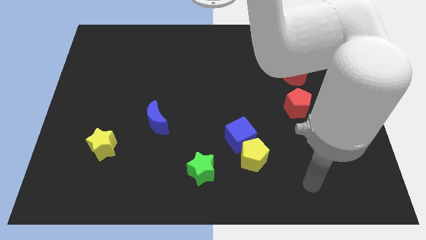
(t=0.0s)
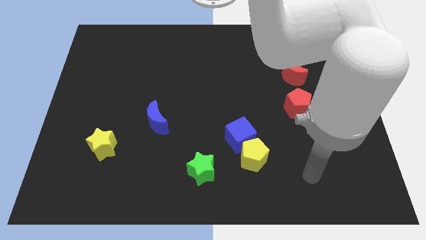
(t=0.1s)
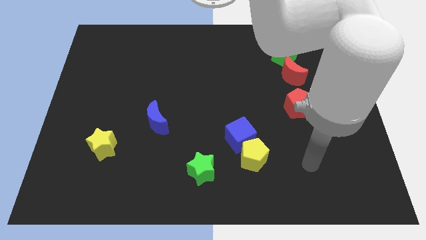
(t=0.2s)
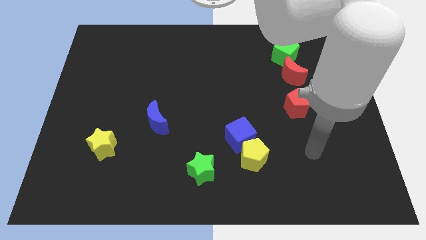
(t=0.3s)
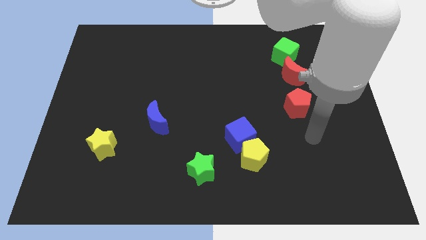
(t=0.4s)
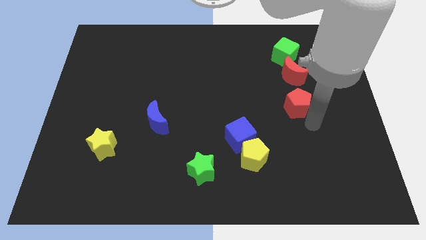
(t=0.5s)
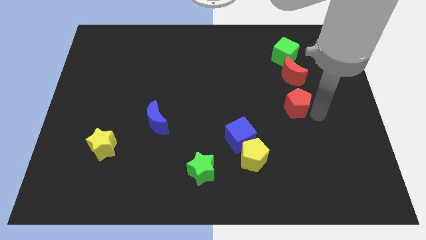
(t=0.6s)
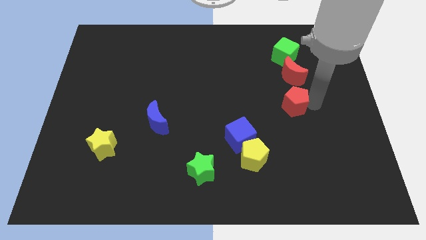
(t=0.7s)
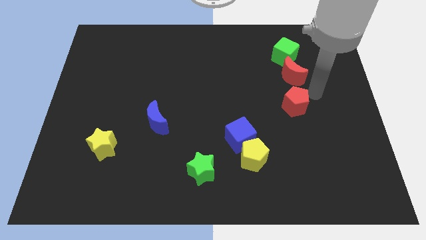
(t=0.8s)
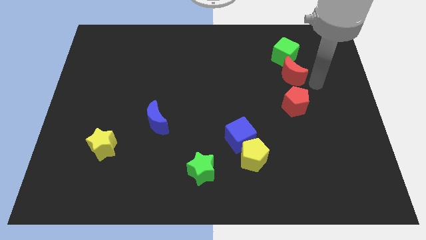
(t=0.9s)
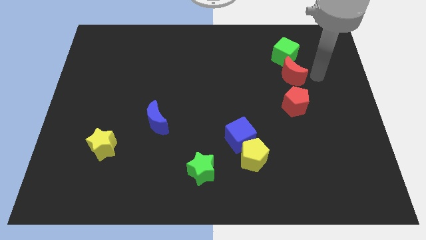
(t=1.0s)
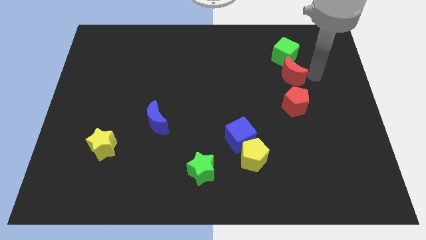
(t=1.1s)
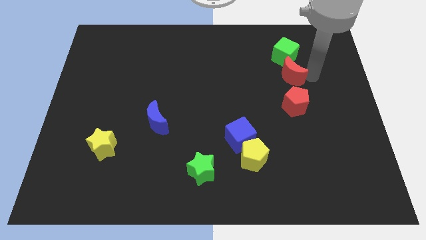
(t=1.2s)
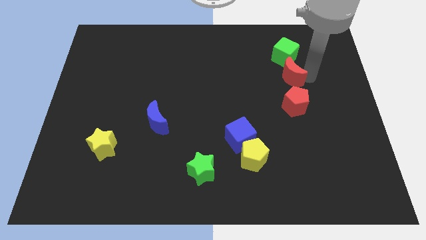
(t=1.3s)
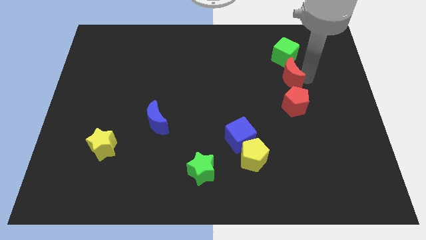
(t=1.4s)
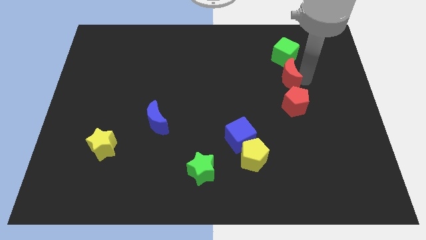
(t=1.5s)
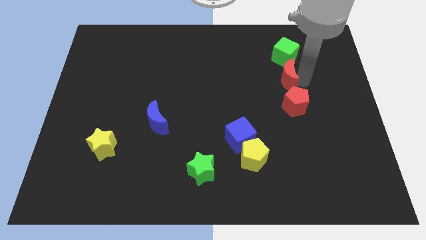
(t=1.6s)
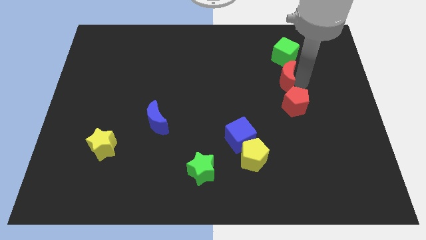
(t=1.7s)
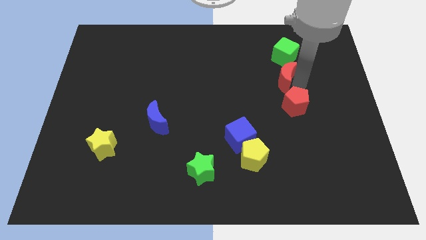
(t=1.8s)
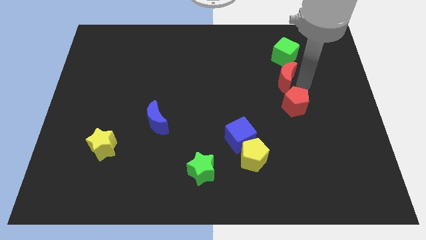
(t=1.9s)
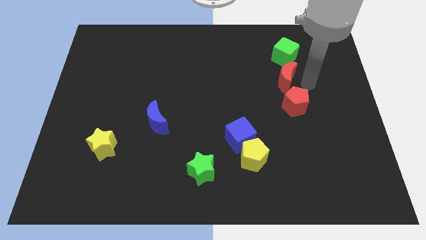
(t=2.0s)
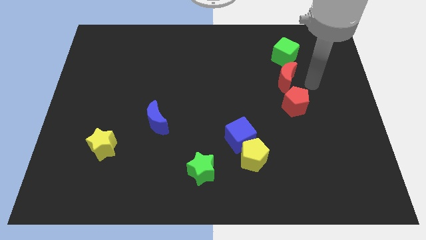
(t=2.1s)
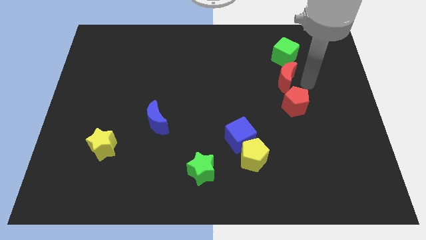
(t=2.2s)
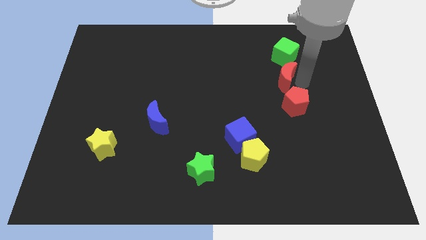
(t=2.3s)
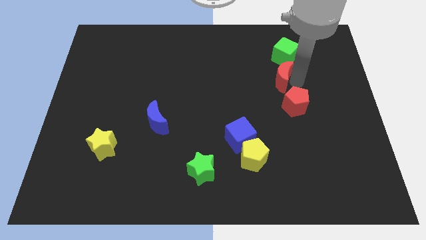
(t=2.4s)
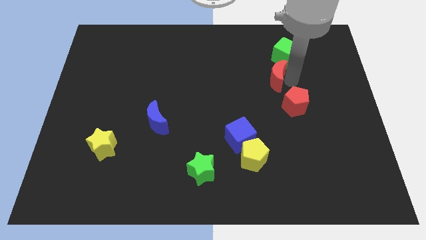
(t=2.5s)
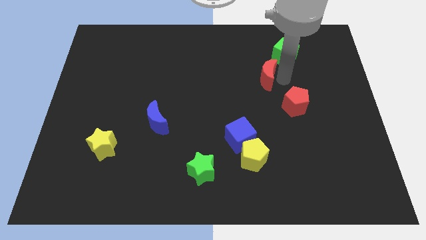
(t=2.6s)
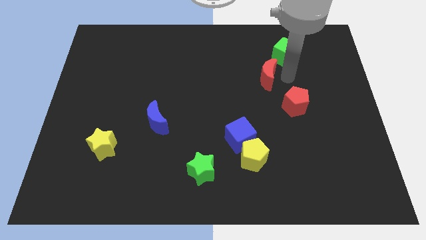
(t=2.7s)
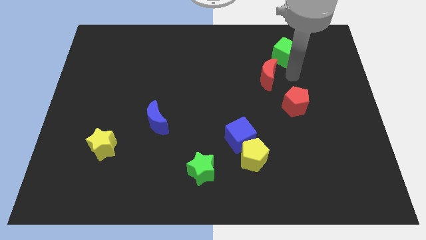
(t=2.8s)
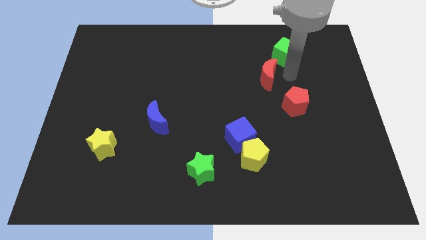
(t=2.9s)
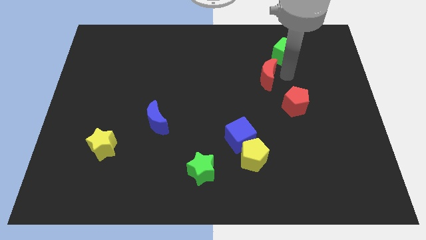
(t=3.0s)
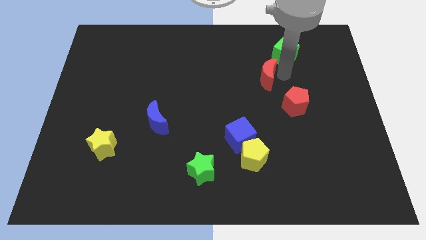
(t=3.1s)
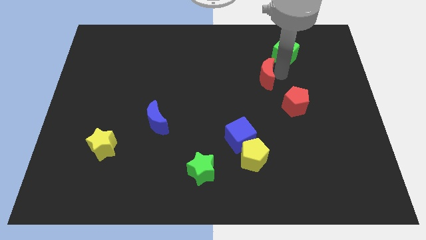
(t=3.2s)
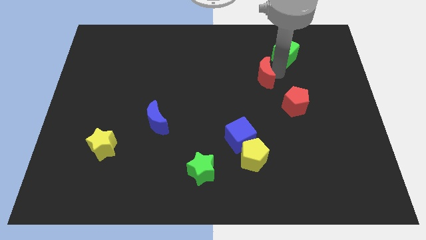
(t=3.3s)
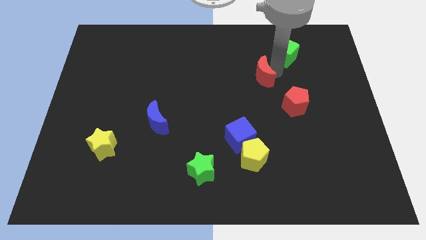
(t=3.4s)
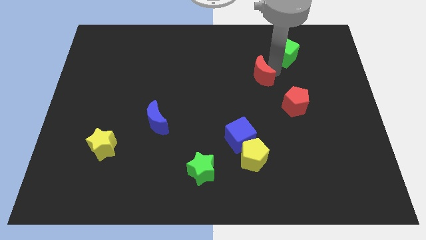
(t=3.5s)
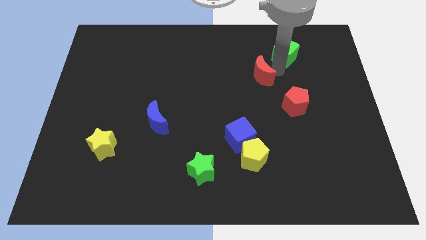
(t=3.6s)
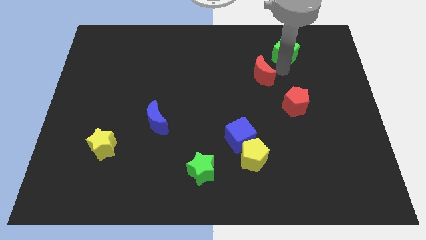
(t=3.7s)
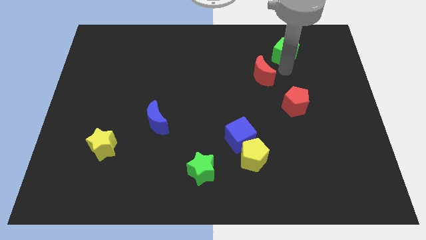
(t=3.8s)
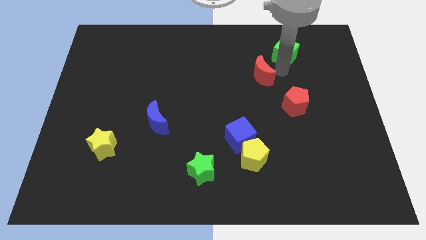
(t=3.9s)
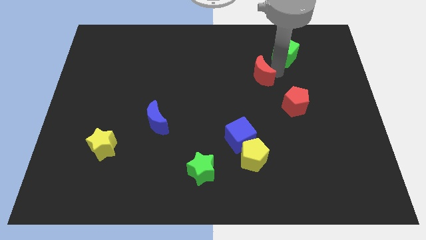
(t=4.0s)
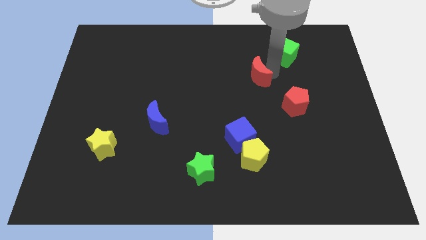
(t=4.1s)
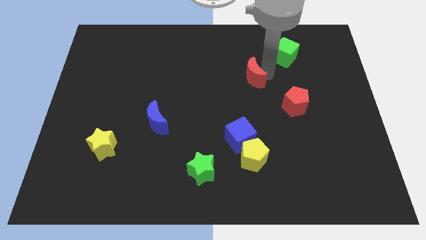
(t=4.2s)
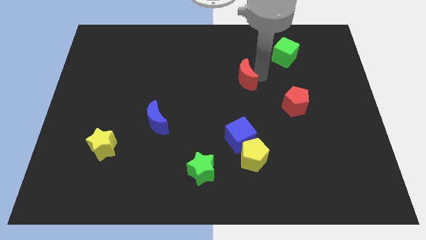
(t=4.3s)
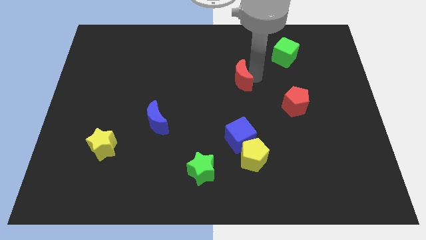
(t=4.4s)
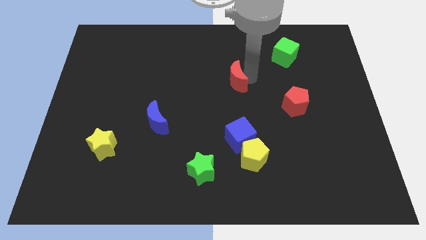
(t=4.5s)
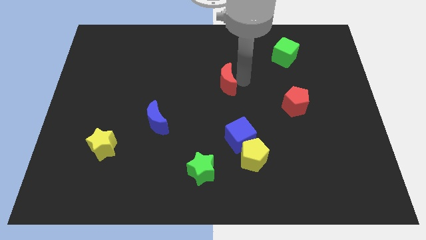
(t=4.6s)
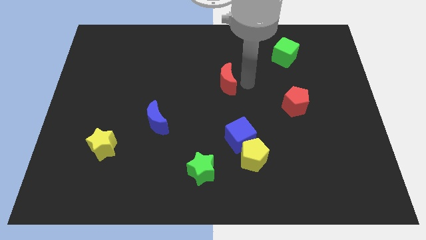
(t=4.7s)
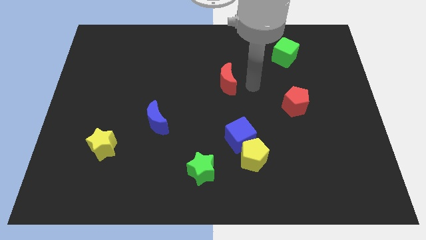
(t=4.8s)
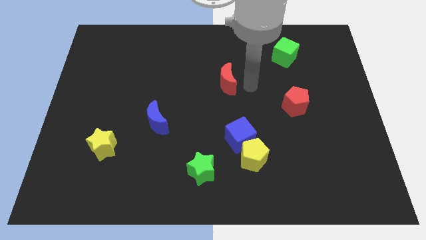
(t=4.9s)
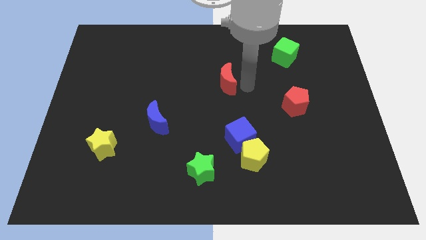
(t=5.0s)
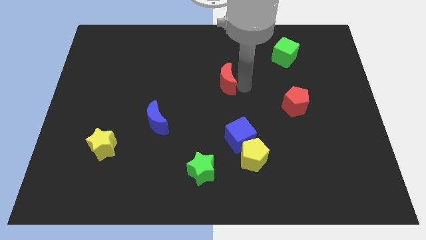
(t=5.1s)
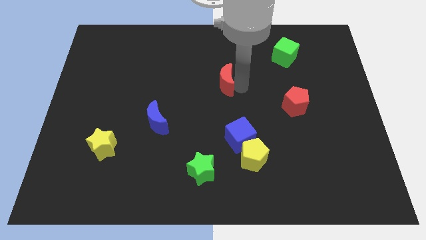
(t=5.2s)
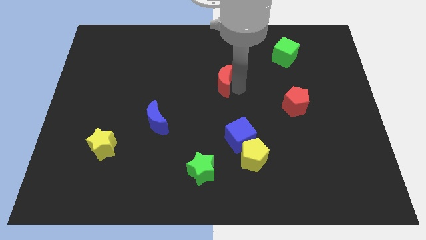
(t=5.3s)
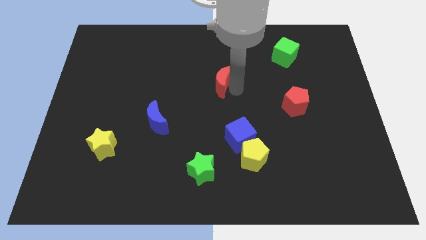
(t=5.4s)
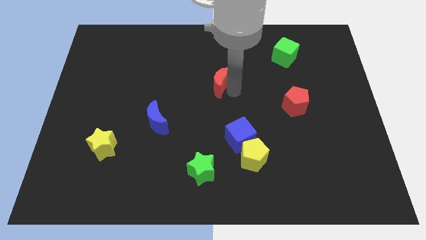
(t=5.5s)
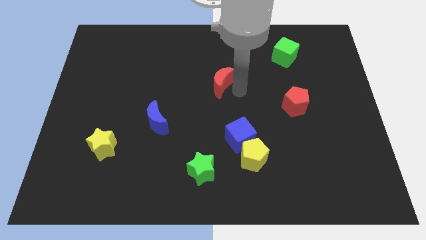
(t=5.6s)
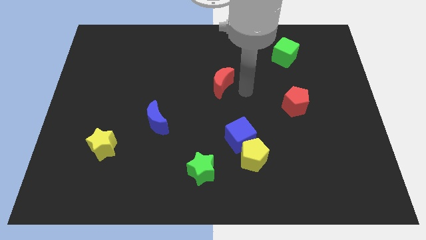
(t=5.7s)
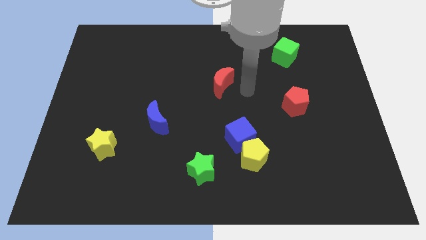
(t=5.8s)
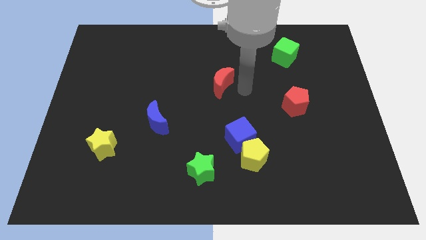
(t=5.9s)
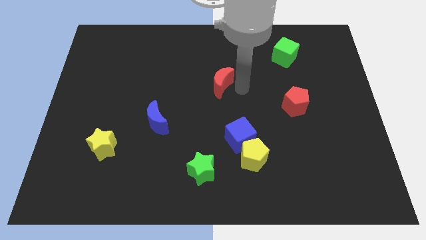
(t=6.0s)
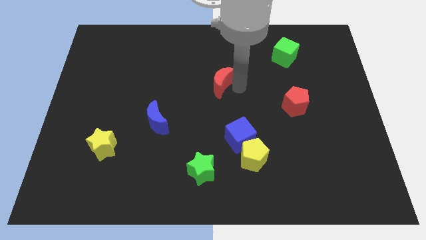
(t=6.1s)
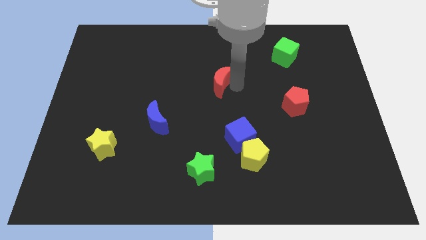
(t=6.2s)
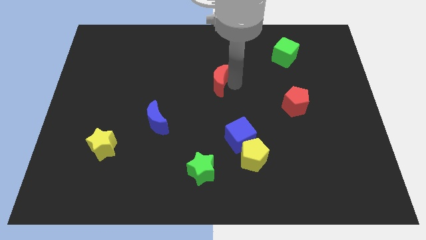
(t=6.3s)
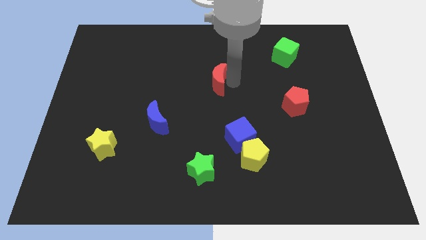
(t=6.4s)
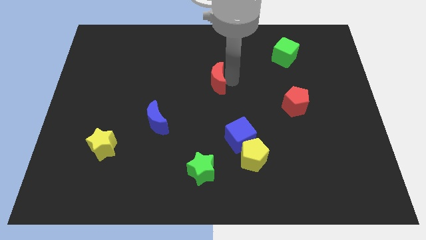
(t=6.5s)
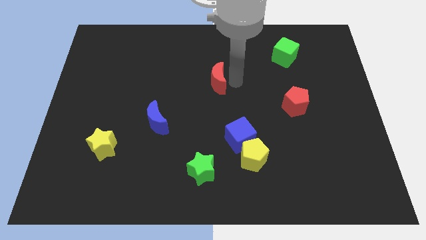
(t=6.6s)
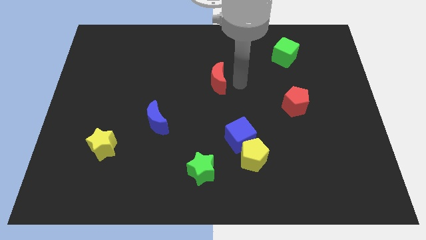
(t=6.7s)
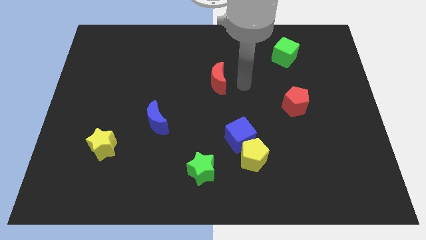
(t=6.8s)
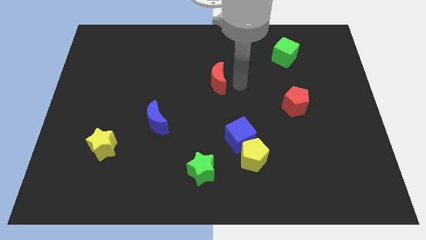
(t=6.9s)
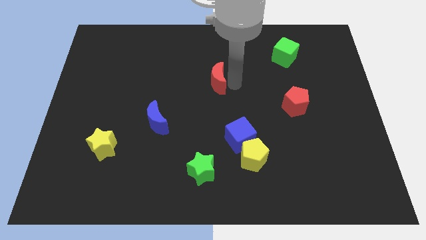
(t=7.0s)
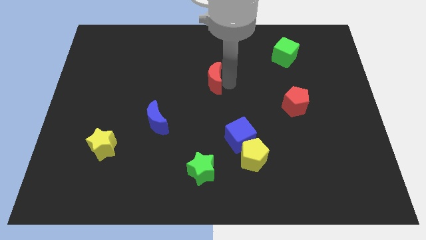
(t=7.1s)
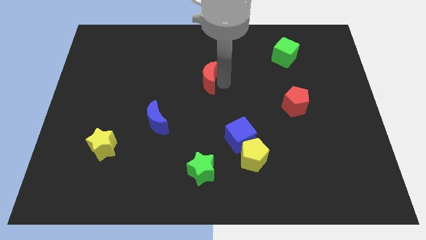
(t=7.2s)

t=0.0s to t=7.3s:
push the red moon to the left

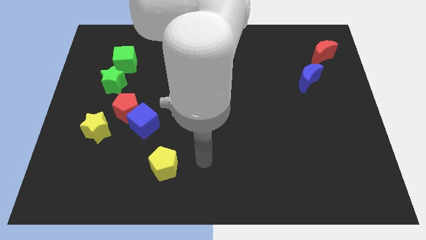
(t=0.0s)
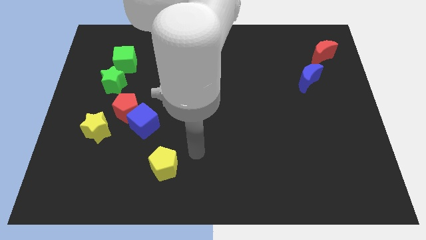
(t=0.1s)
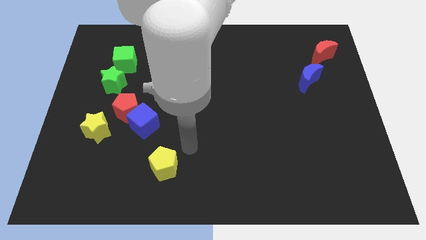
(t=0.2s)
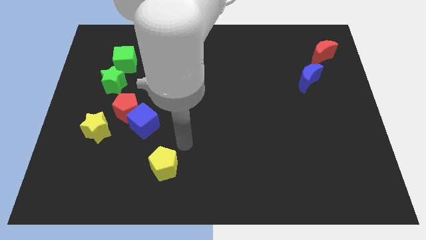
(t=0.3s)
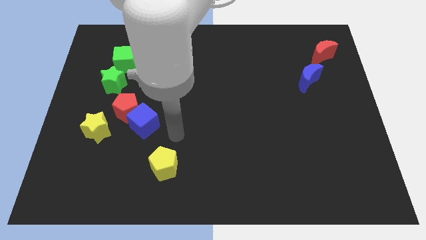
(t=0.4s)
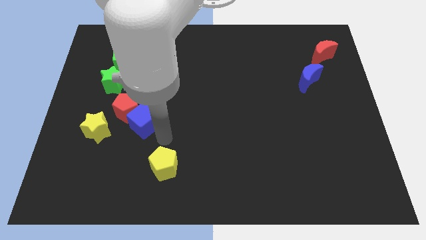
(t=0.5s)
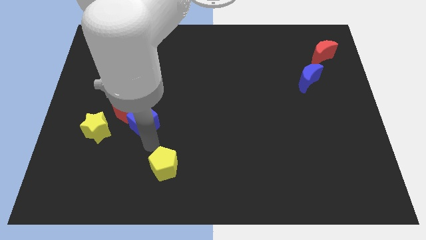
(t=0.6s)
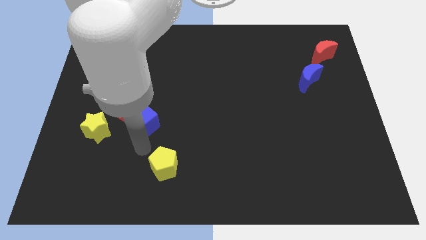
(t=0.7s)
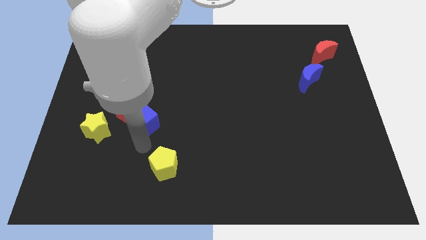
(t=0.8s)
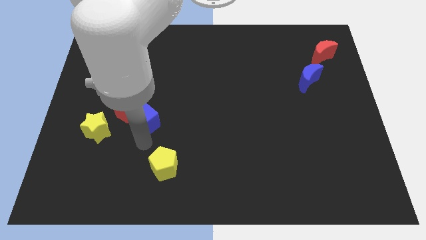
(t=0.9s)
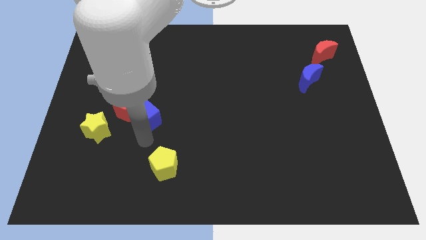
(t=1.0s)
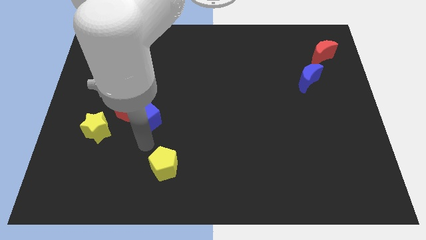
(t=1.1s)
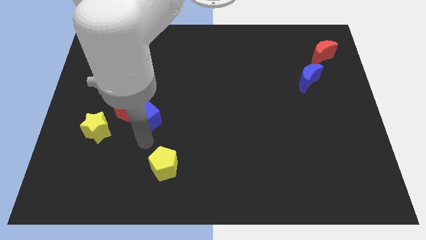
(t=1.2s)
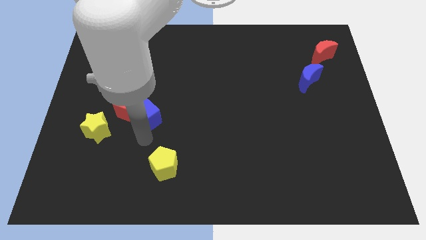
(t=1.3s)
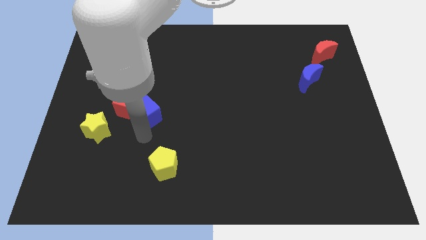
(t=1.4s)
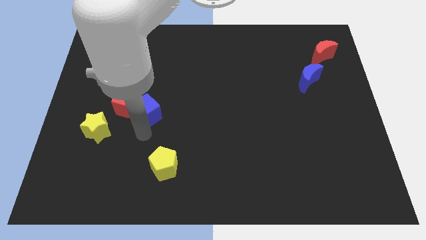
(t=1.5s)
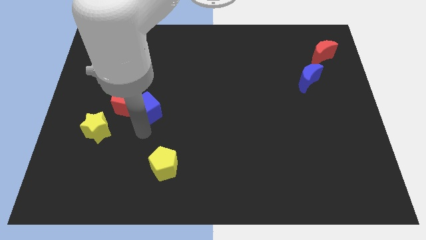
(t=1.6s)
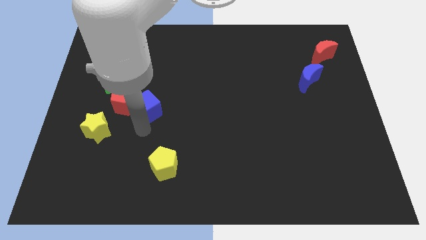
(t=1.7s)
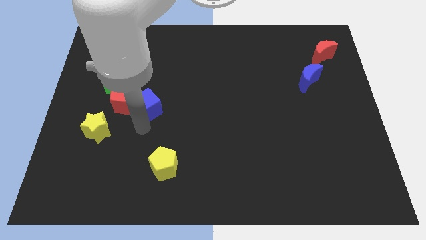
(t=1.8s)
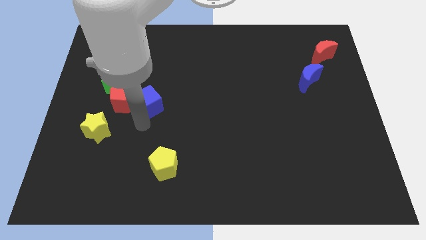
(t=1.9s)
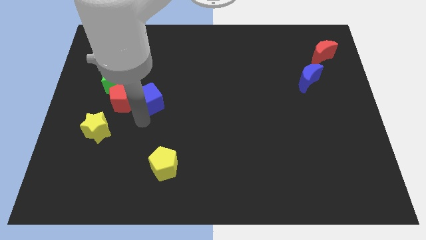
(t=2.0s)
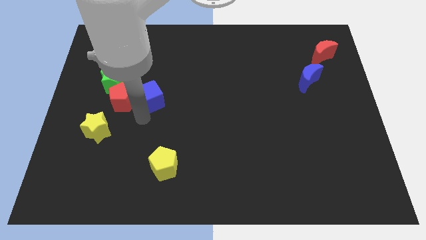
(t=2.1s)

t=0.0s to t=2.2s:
push the blue cube a little upwards
